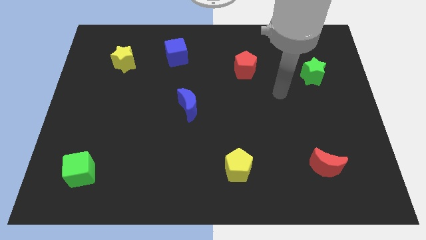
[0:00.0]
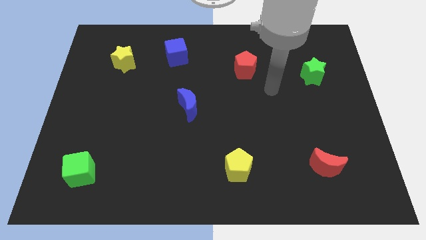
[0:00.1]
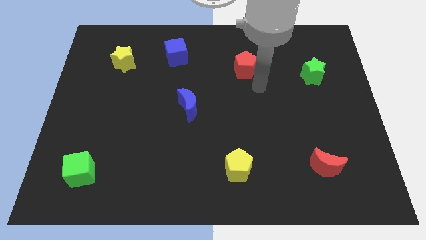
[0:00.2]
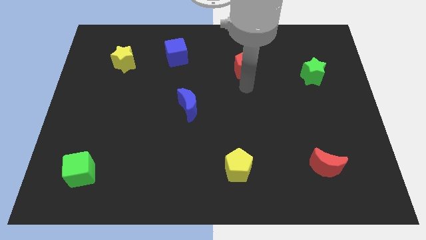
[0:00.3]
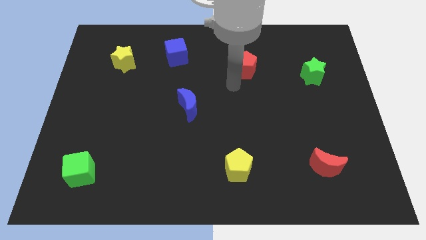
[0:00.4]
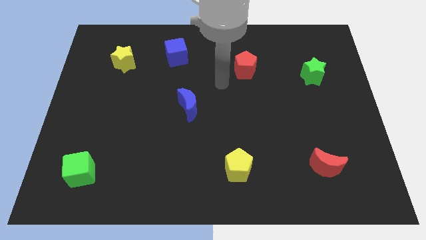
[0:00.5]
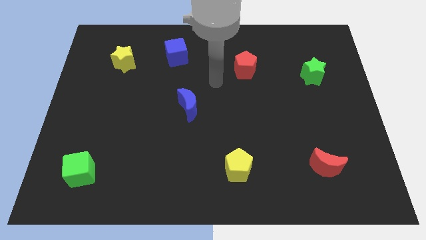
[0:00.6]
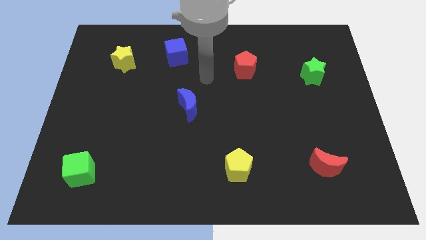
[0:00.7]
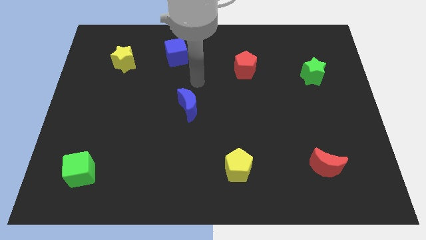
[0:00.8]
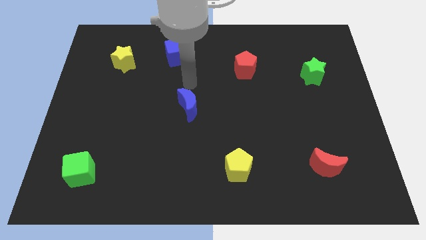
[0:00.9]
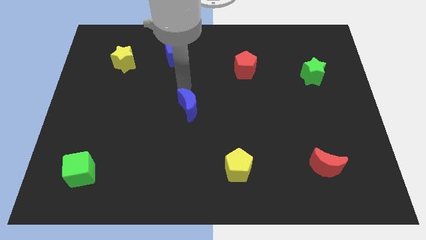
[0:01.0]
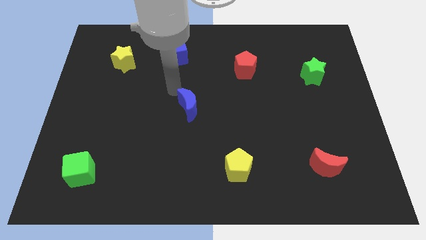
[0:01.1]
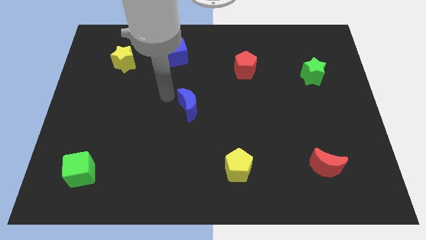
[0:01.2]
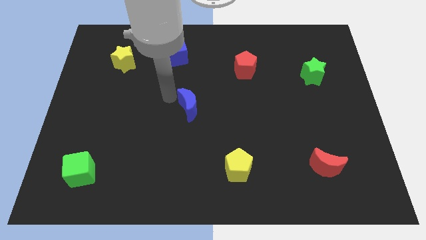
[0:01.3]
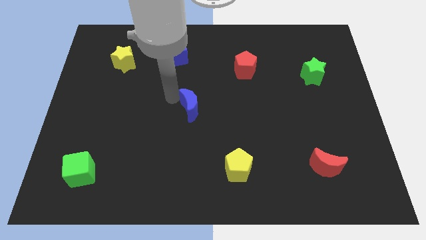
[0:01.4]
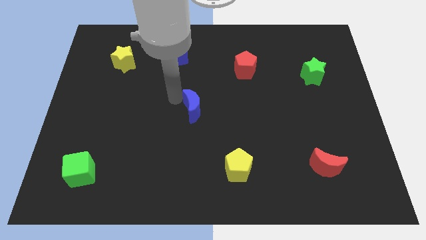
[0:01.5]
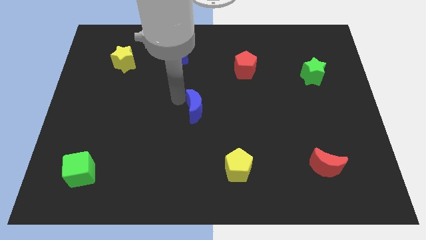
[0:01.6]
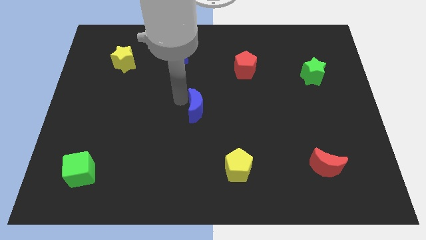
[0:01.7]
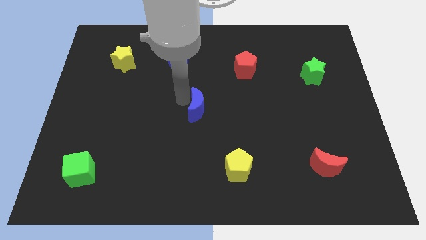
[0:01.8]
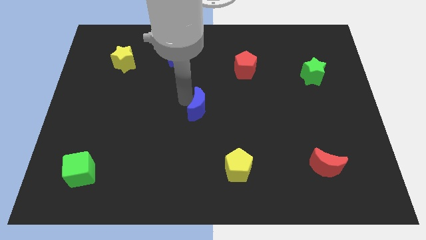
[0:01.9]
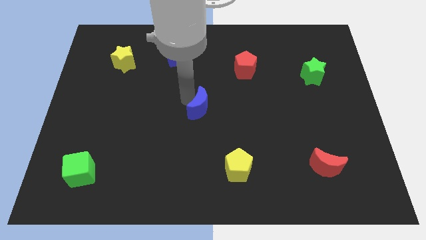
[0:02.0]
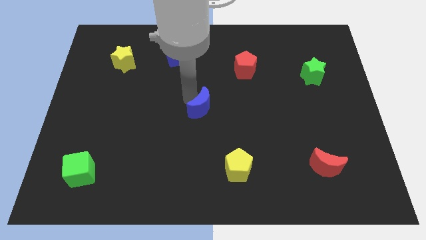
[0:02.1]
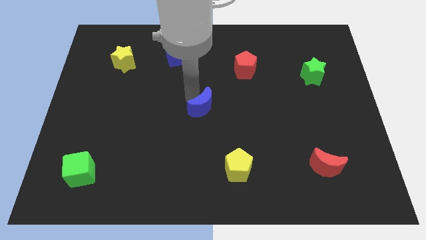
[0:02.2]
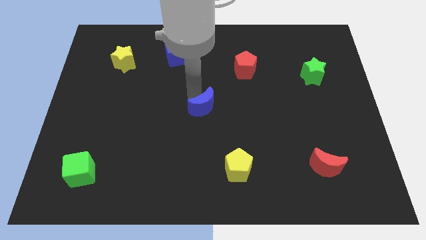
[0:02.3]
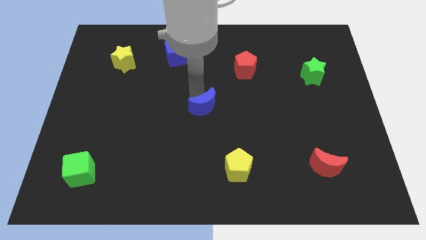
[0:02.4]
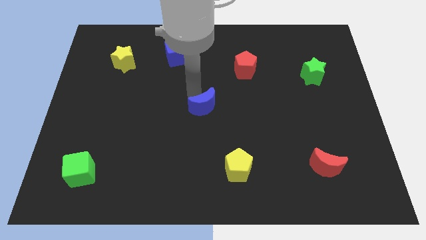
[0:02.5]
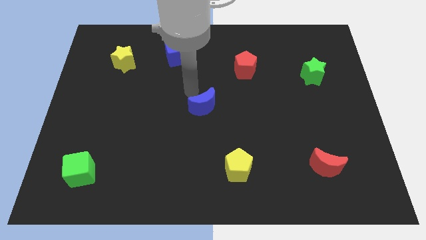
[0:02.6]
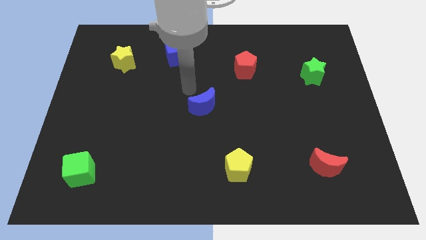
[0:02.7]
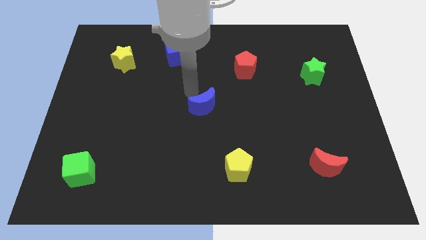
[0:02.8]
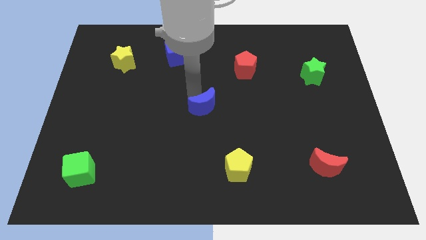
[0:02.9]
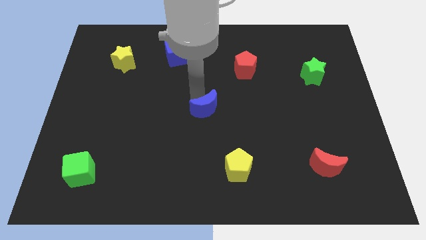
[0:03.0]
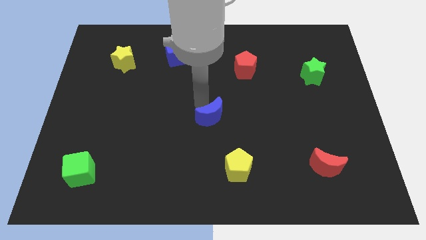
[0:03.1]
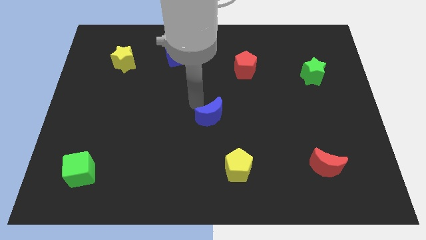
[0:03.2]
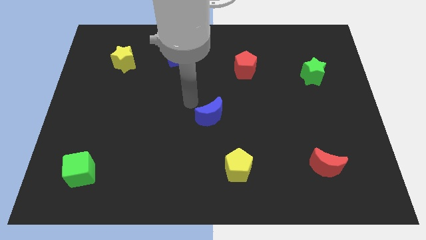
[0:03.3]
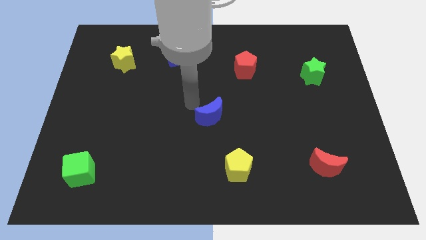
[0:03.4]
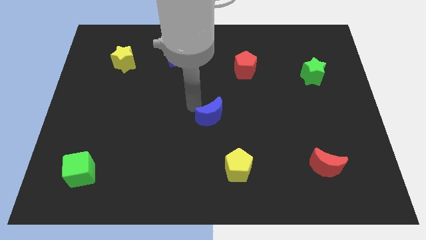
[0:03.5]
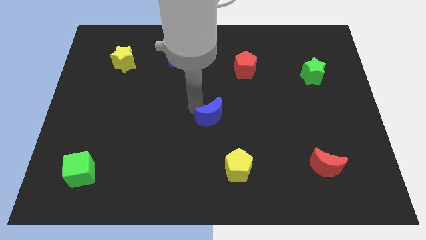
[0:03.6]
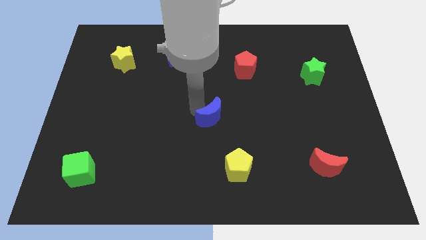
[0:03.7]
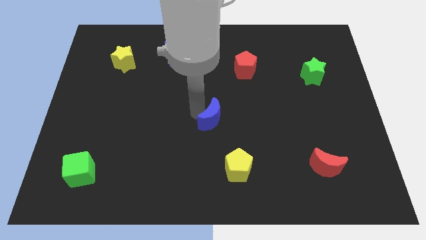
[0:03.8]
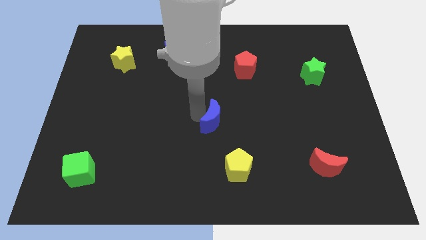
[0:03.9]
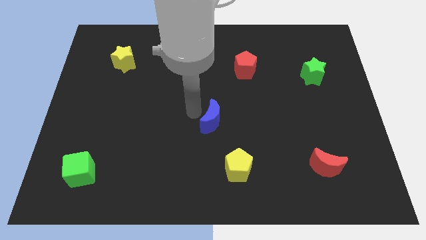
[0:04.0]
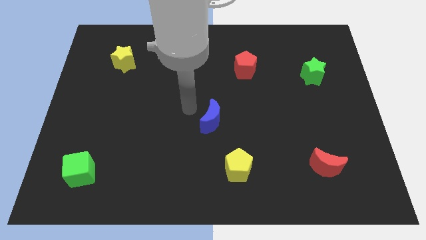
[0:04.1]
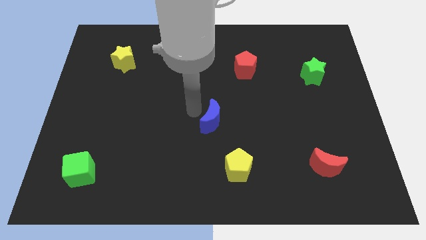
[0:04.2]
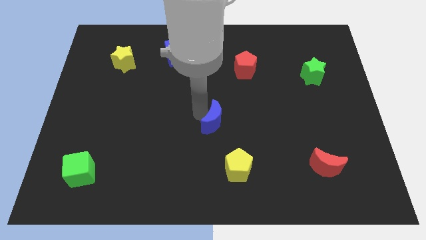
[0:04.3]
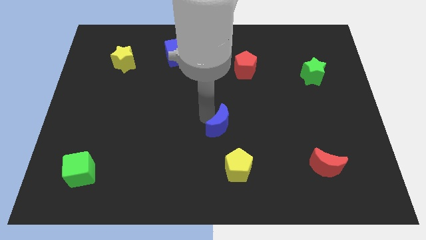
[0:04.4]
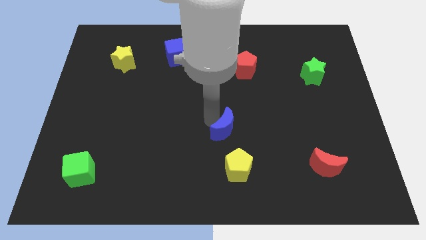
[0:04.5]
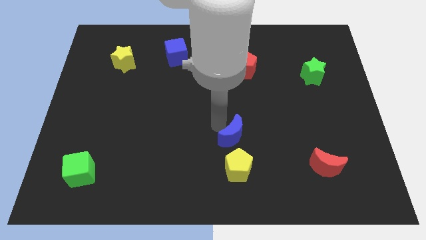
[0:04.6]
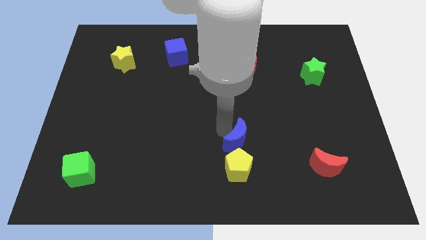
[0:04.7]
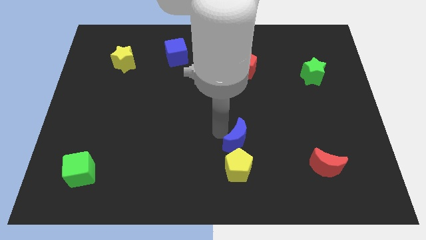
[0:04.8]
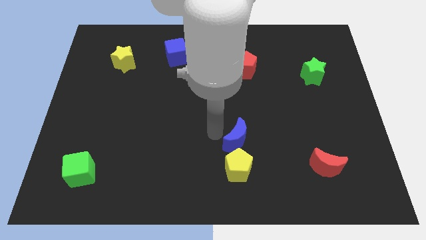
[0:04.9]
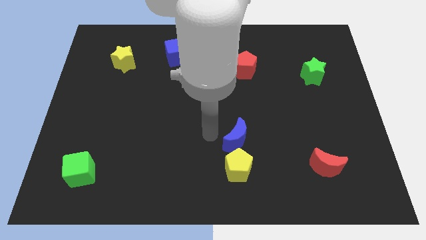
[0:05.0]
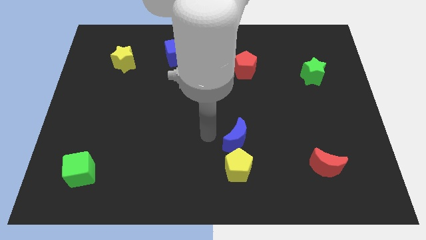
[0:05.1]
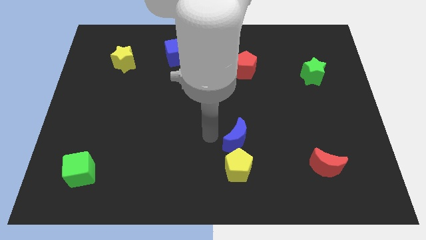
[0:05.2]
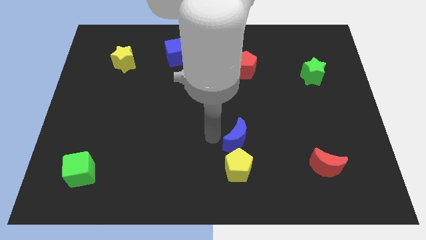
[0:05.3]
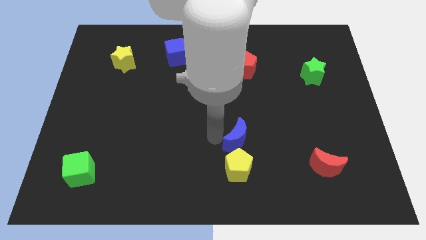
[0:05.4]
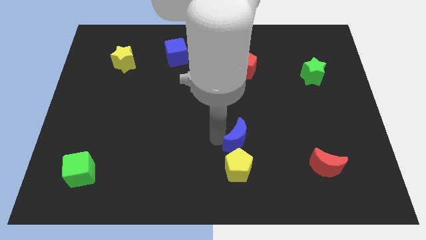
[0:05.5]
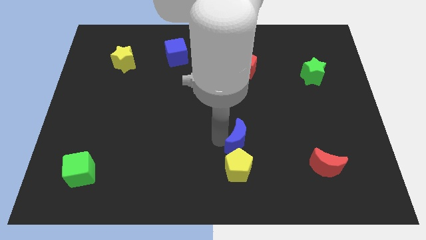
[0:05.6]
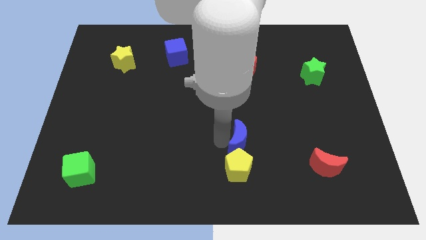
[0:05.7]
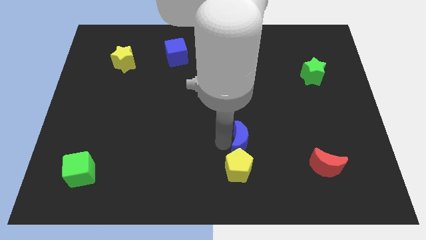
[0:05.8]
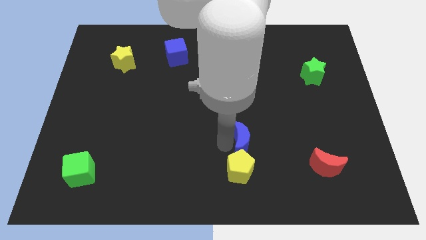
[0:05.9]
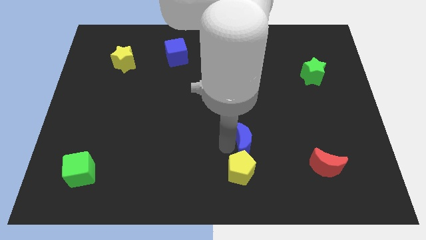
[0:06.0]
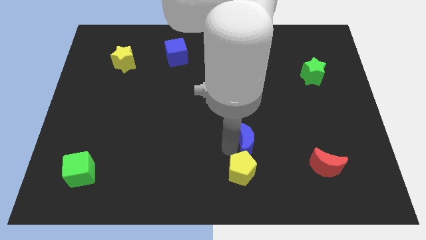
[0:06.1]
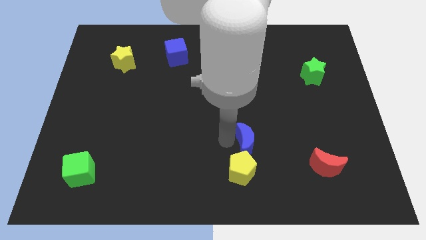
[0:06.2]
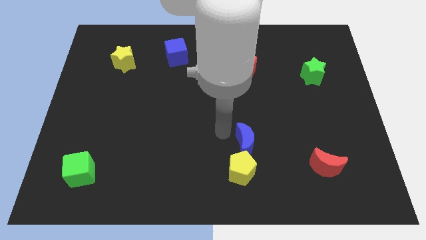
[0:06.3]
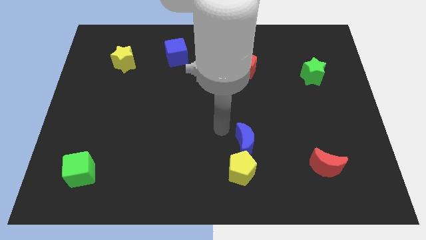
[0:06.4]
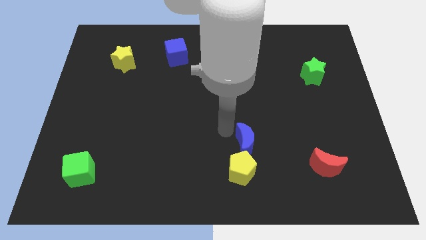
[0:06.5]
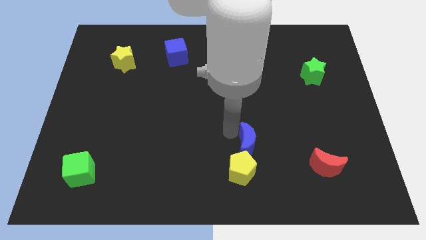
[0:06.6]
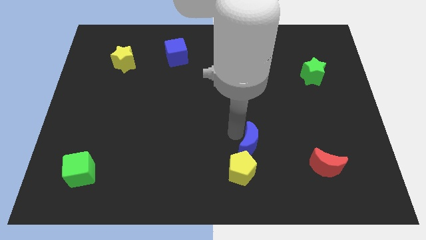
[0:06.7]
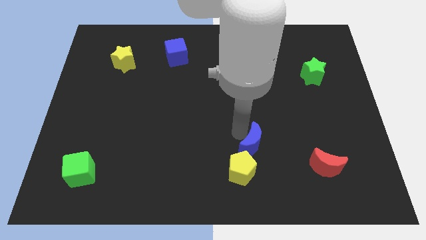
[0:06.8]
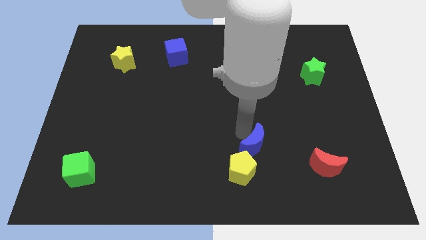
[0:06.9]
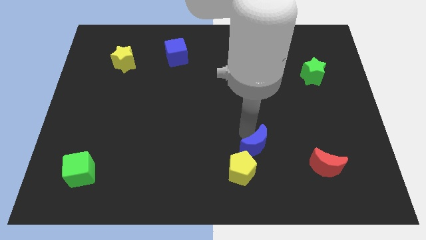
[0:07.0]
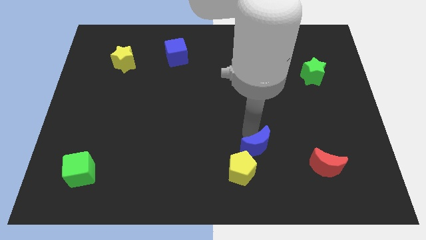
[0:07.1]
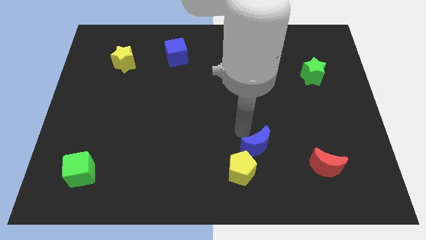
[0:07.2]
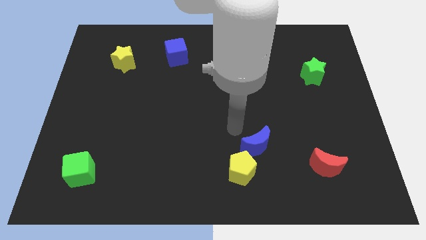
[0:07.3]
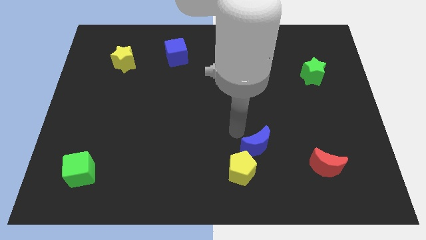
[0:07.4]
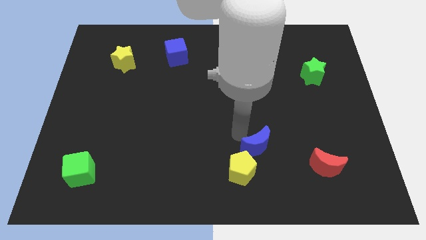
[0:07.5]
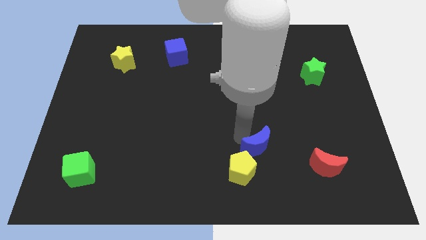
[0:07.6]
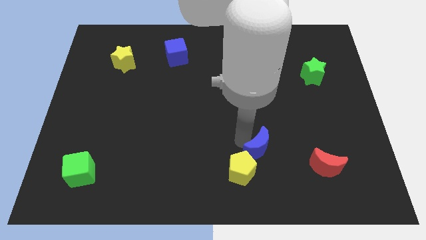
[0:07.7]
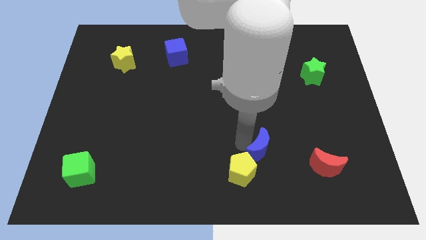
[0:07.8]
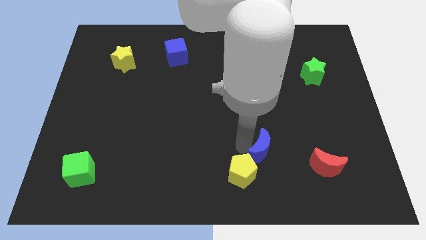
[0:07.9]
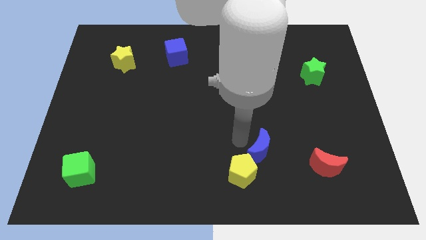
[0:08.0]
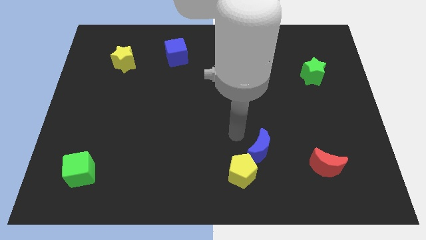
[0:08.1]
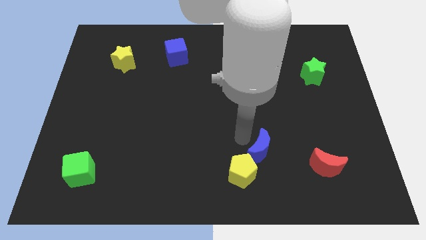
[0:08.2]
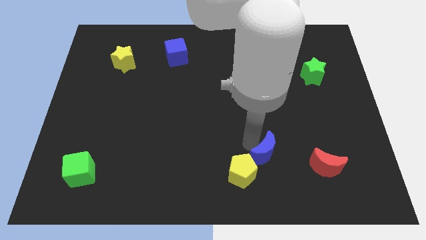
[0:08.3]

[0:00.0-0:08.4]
put the blue moon just right of the yellow pentagon
